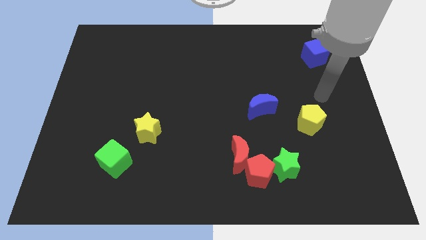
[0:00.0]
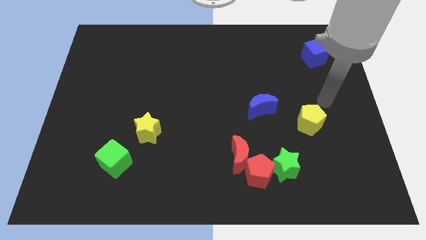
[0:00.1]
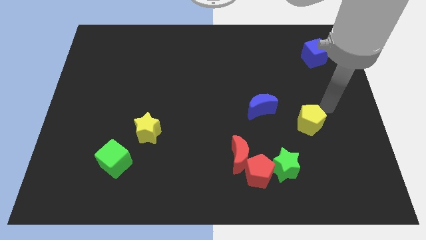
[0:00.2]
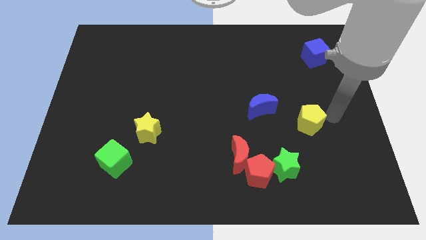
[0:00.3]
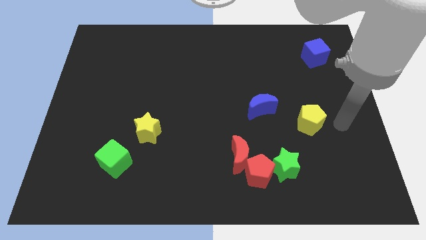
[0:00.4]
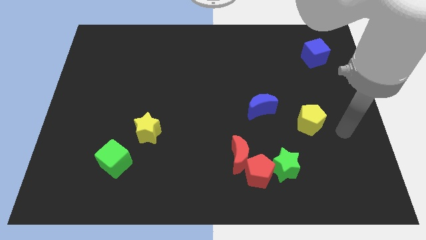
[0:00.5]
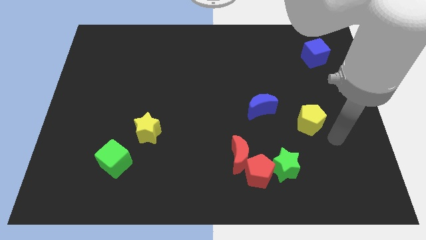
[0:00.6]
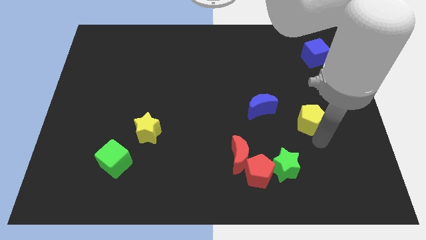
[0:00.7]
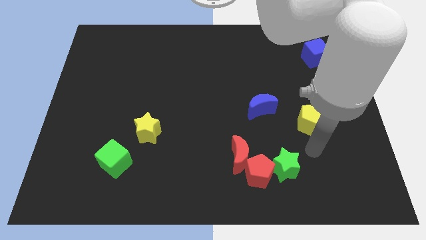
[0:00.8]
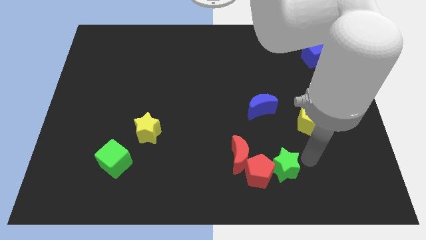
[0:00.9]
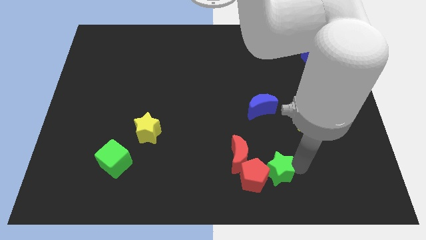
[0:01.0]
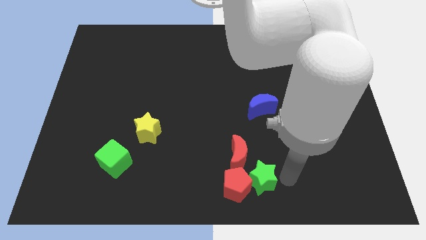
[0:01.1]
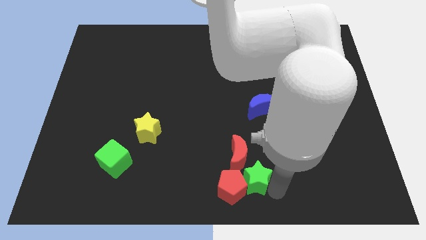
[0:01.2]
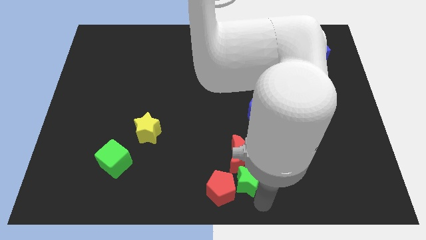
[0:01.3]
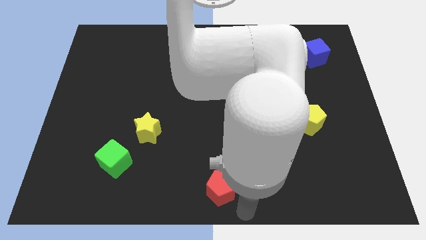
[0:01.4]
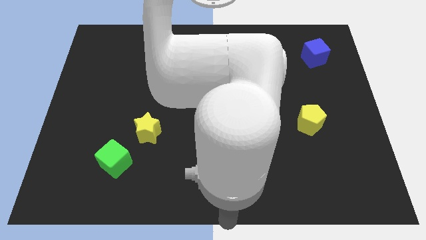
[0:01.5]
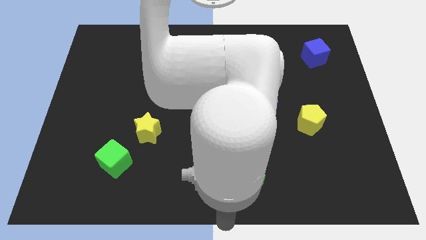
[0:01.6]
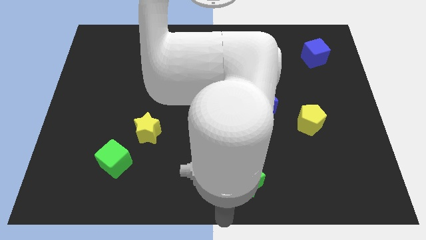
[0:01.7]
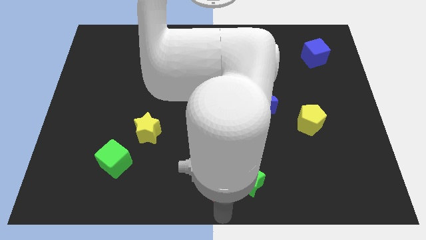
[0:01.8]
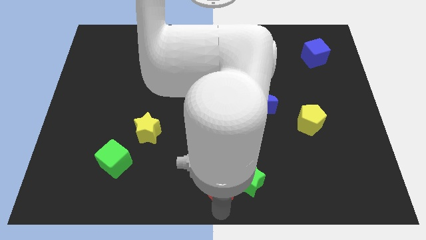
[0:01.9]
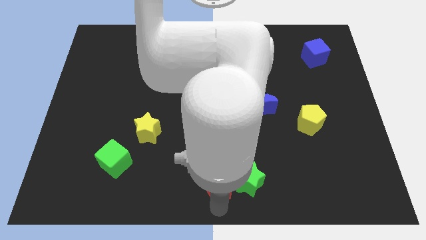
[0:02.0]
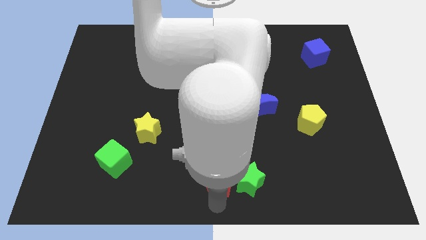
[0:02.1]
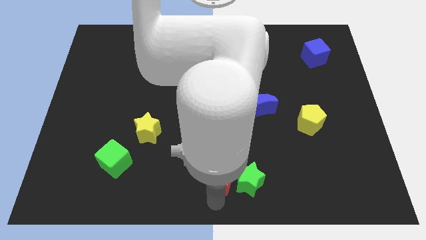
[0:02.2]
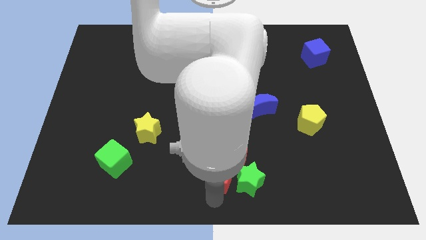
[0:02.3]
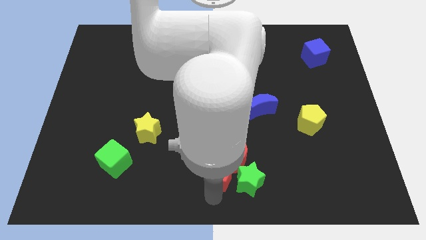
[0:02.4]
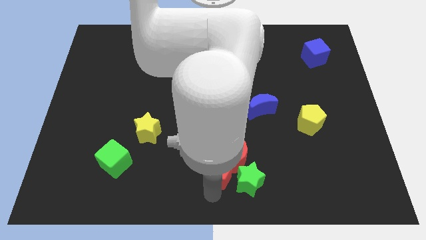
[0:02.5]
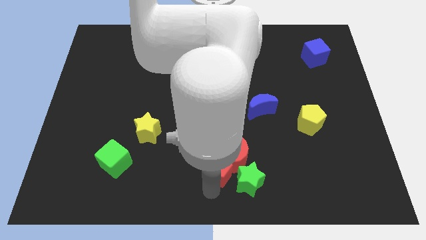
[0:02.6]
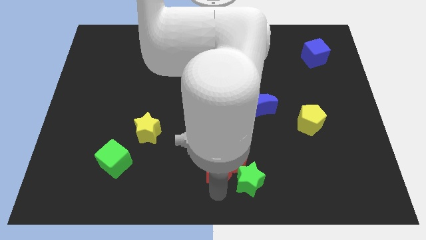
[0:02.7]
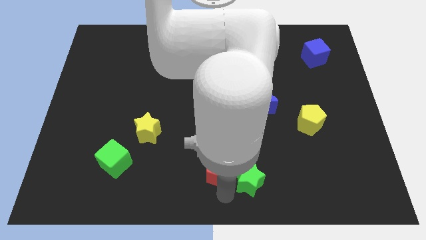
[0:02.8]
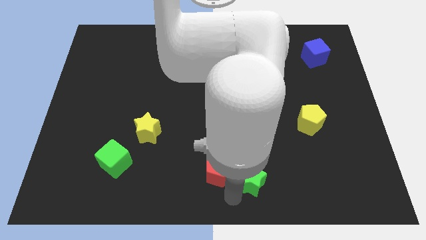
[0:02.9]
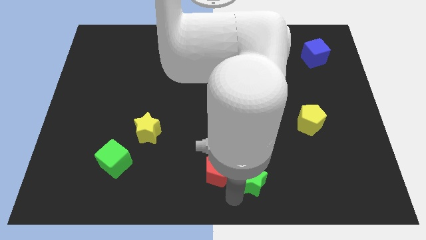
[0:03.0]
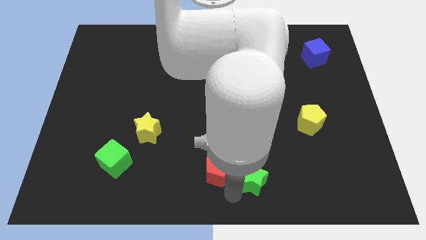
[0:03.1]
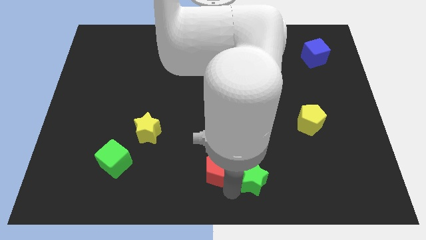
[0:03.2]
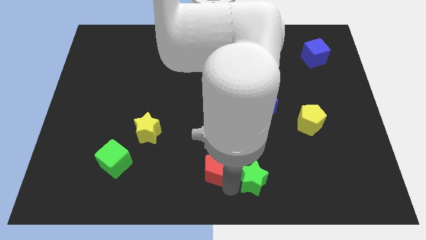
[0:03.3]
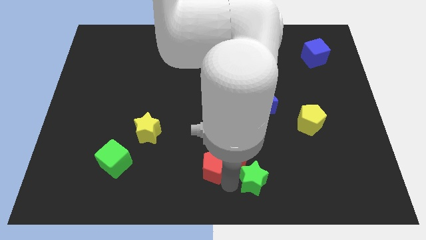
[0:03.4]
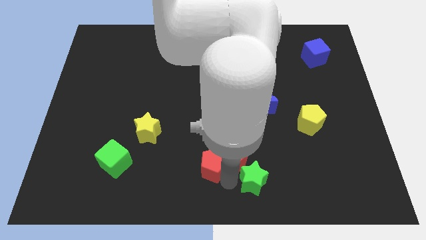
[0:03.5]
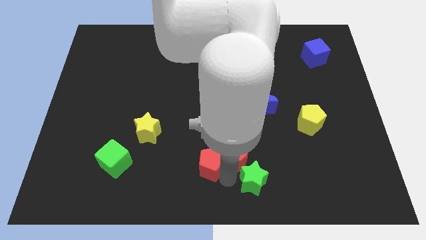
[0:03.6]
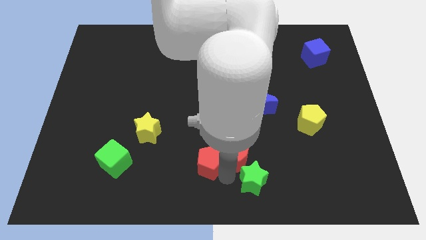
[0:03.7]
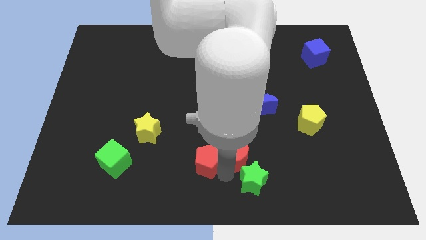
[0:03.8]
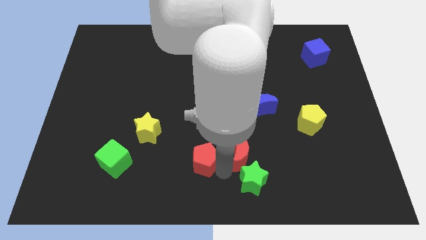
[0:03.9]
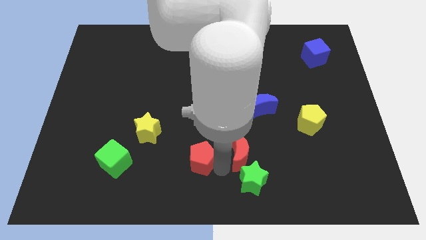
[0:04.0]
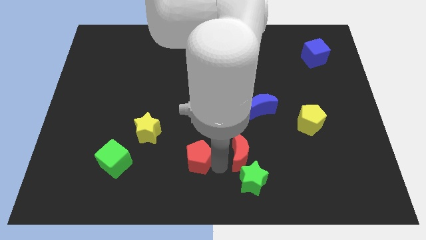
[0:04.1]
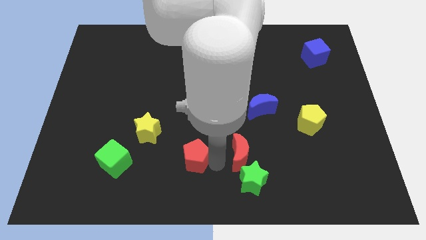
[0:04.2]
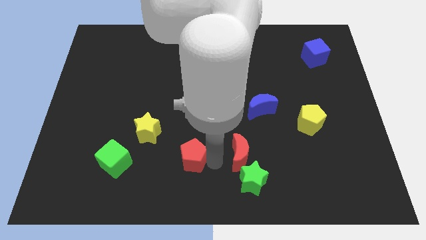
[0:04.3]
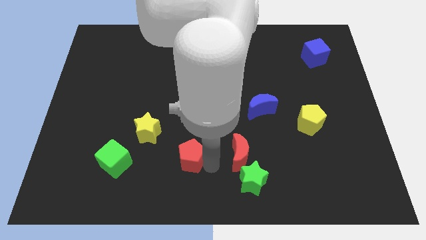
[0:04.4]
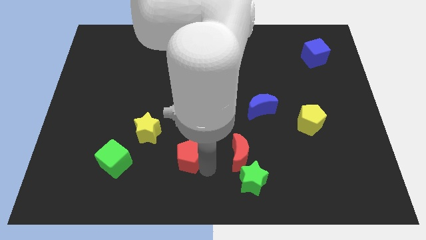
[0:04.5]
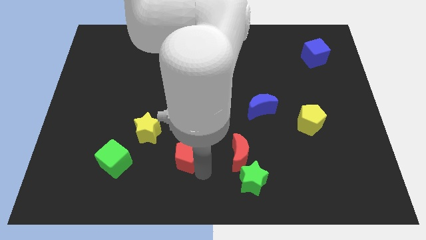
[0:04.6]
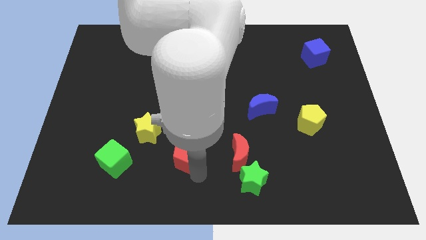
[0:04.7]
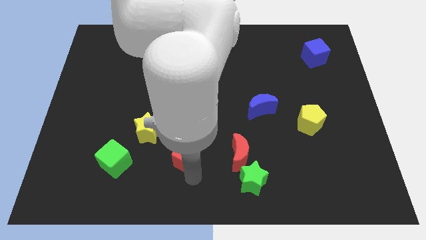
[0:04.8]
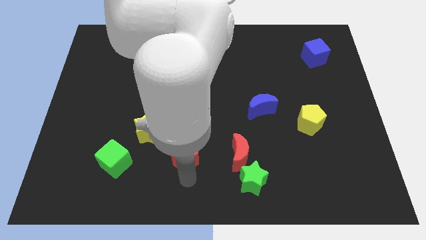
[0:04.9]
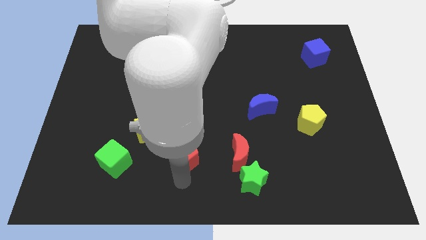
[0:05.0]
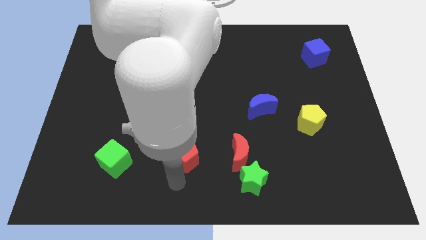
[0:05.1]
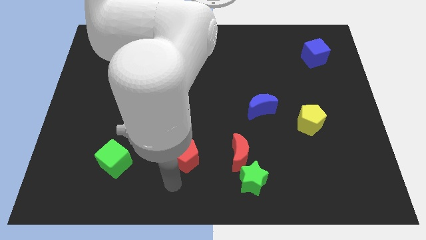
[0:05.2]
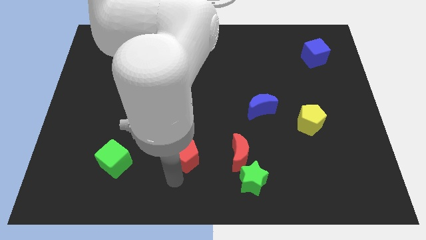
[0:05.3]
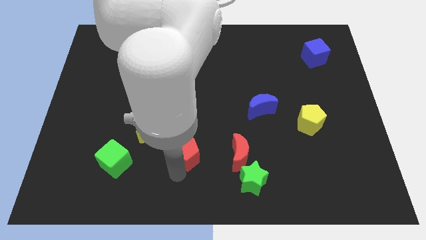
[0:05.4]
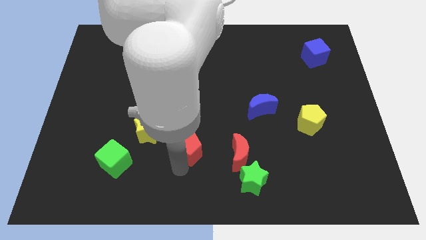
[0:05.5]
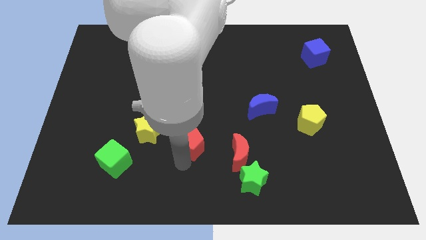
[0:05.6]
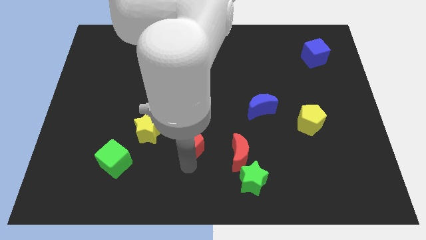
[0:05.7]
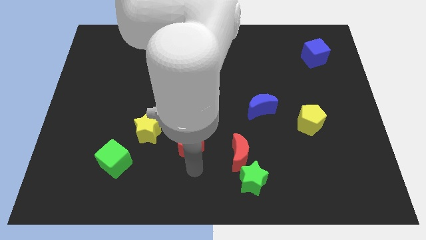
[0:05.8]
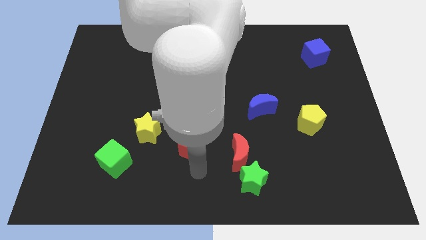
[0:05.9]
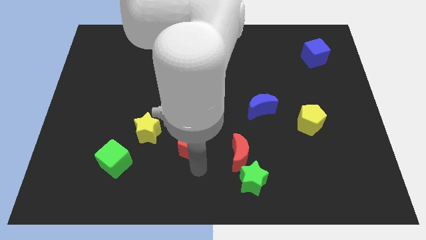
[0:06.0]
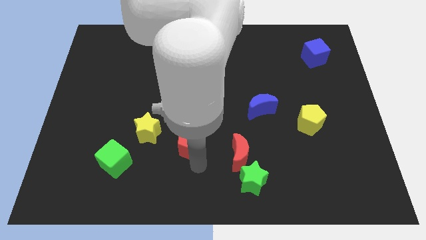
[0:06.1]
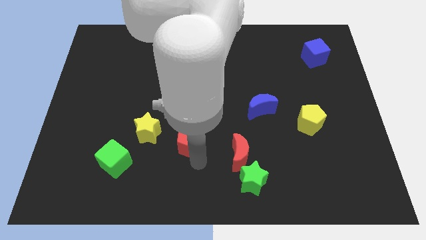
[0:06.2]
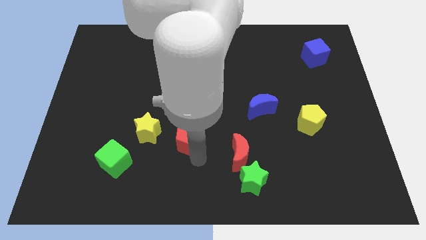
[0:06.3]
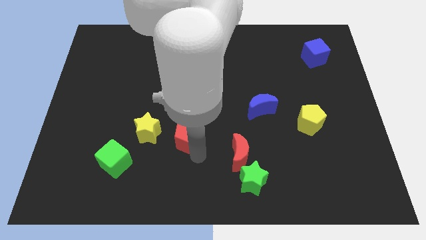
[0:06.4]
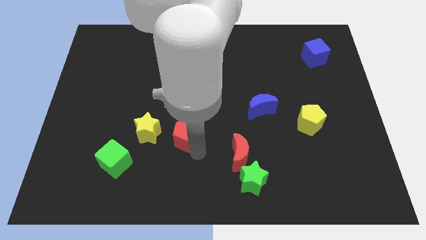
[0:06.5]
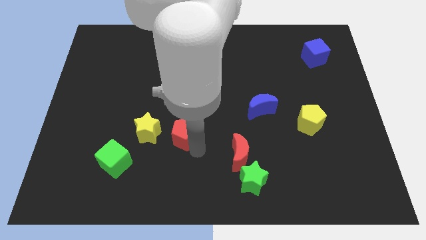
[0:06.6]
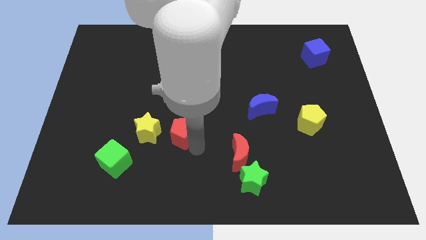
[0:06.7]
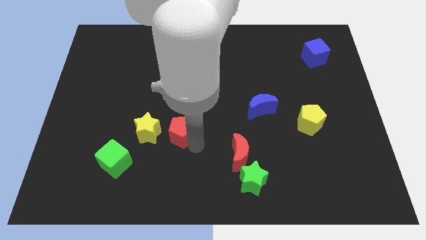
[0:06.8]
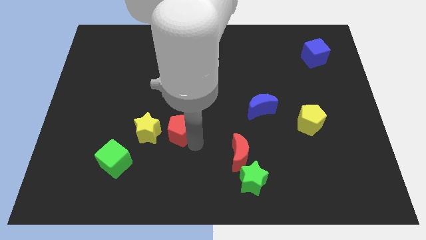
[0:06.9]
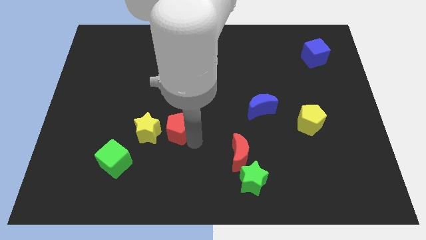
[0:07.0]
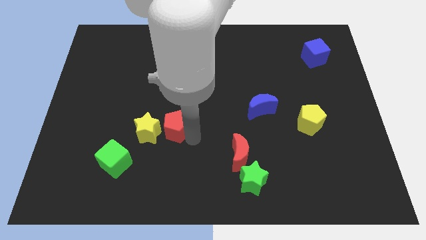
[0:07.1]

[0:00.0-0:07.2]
move the red pentagon upwards and then to the left

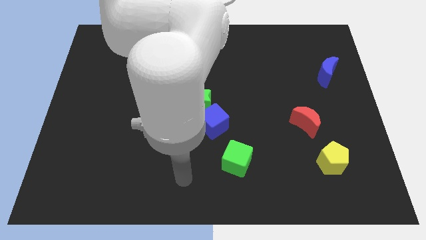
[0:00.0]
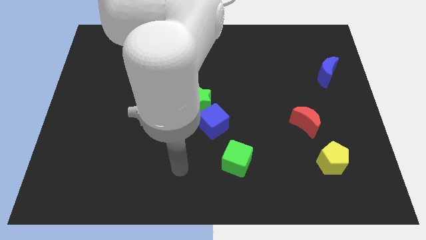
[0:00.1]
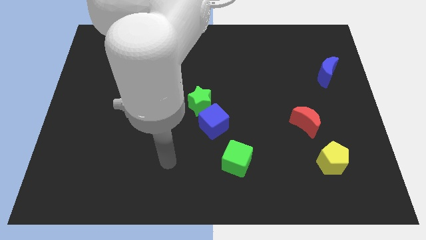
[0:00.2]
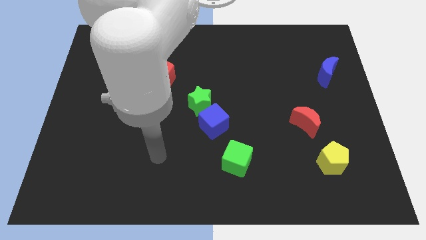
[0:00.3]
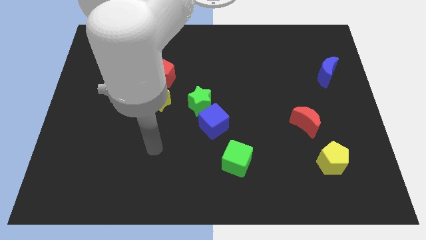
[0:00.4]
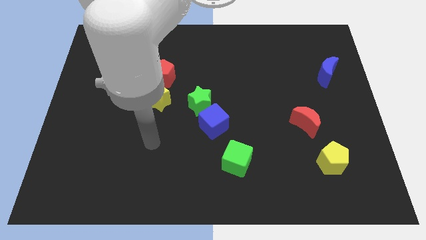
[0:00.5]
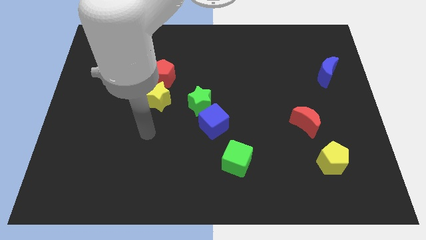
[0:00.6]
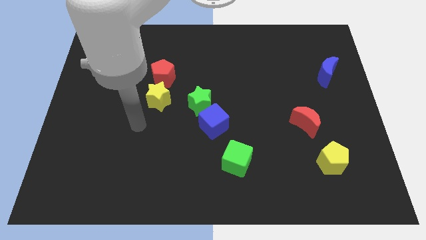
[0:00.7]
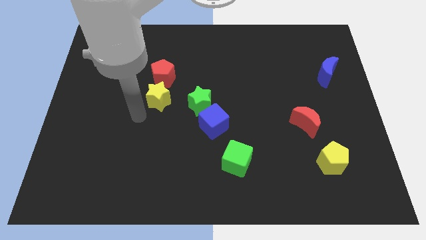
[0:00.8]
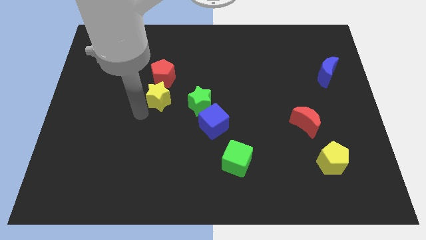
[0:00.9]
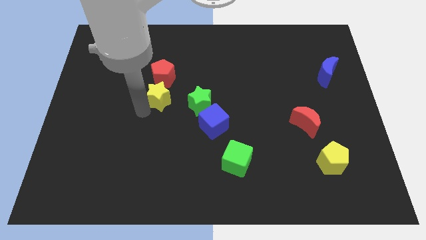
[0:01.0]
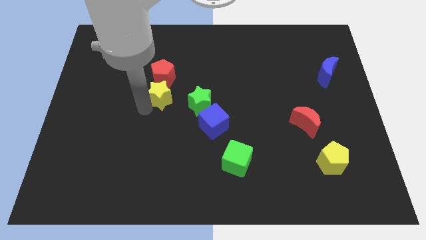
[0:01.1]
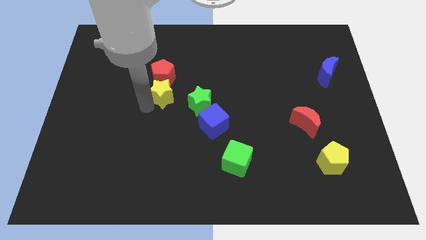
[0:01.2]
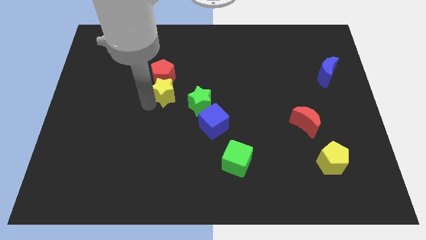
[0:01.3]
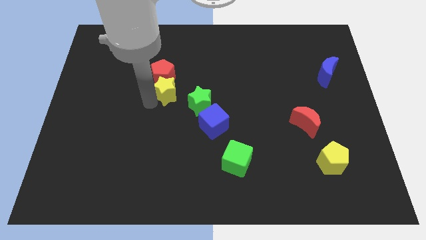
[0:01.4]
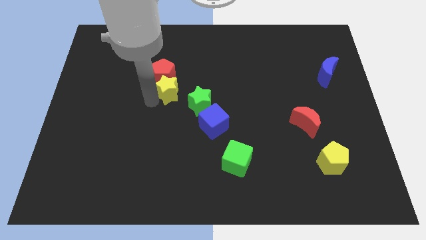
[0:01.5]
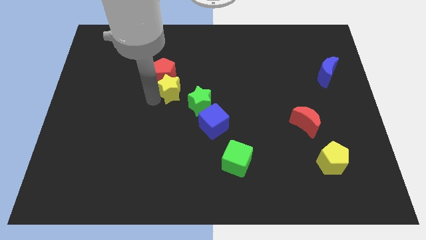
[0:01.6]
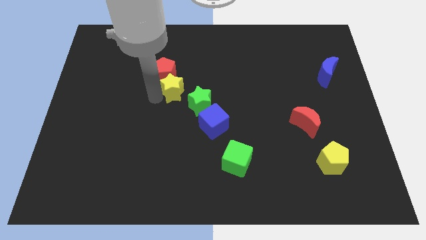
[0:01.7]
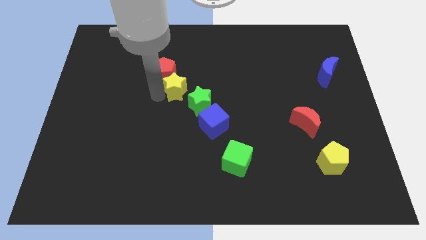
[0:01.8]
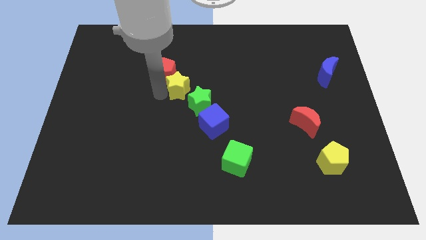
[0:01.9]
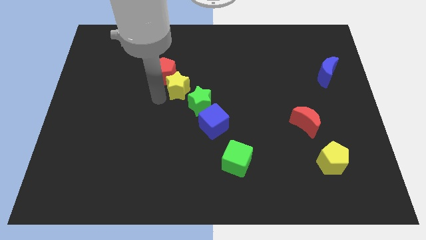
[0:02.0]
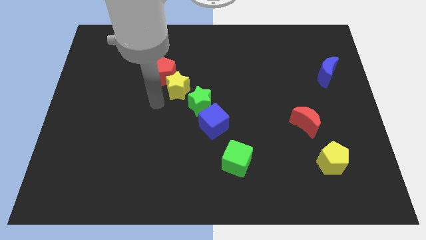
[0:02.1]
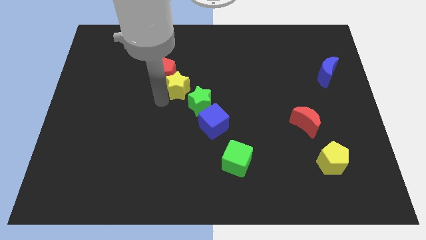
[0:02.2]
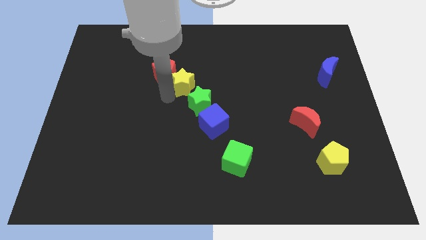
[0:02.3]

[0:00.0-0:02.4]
push the yellow star upwards and then right a little bit
